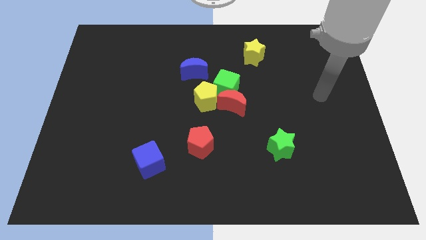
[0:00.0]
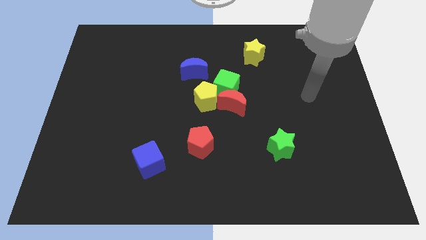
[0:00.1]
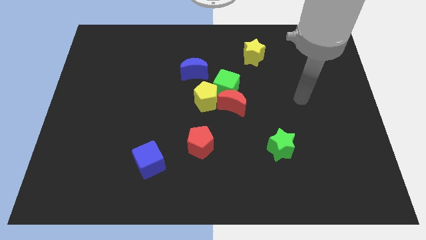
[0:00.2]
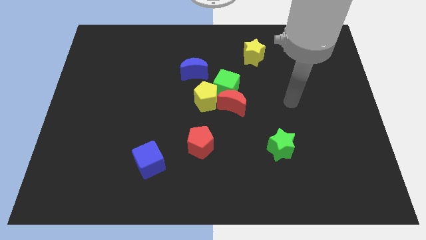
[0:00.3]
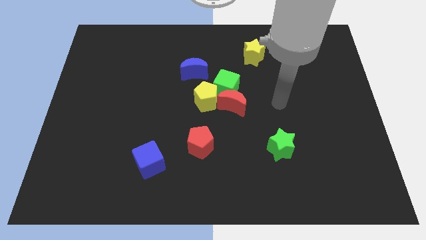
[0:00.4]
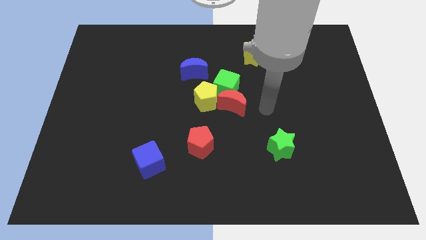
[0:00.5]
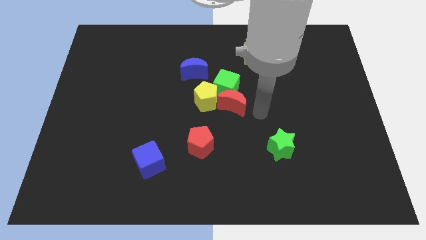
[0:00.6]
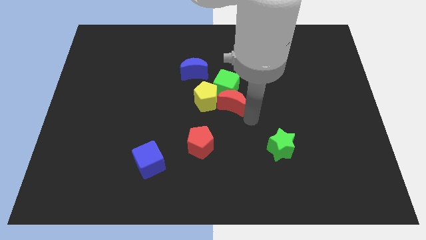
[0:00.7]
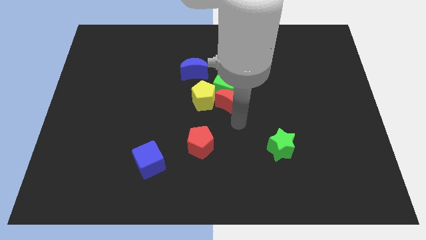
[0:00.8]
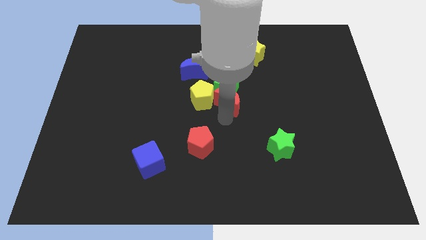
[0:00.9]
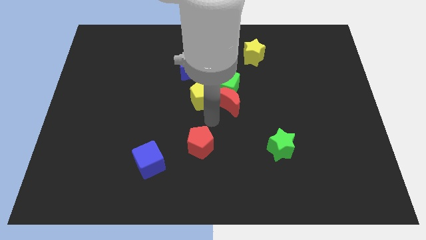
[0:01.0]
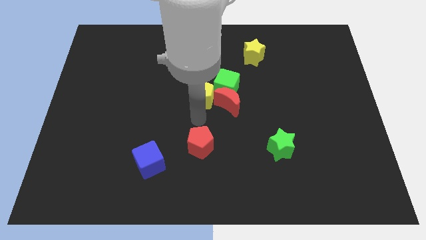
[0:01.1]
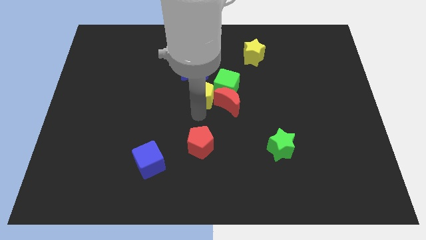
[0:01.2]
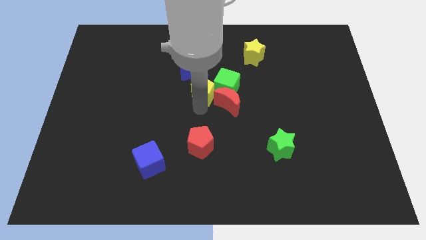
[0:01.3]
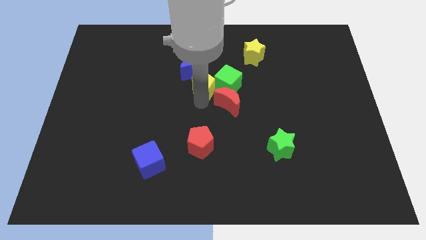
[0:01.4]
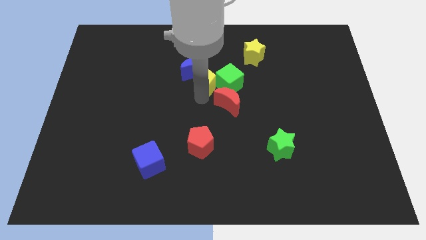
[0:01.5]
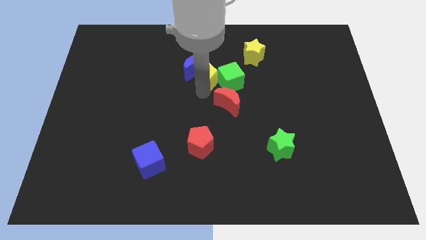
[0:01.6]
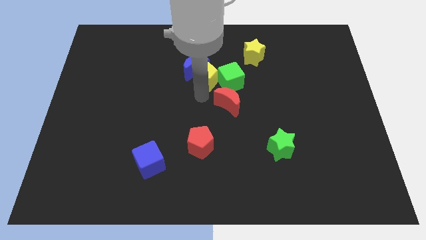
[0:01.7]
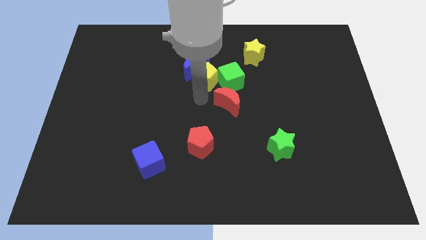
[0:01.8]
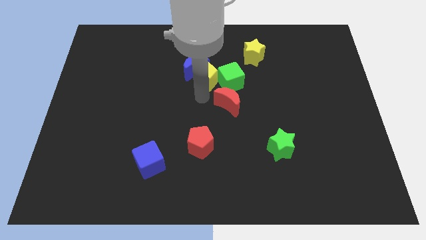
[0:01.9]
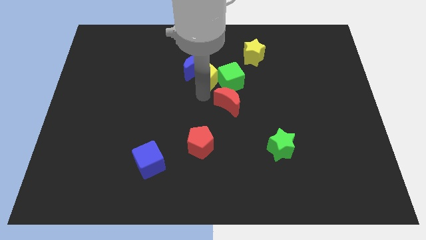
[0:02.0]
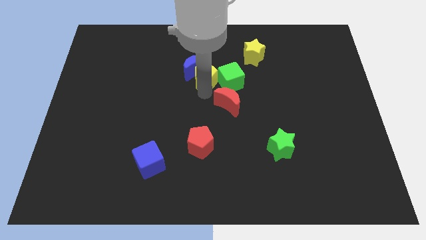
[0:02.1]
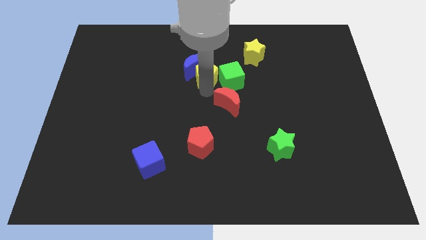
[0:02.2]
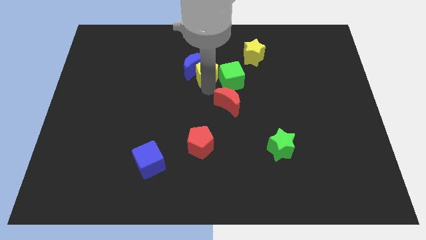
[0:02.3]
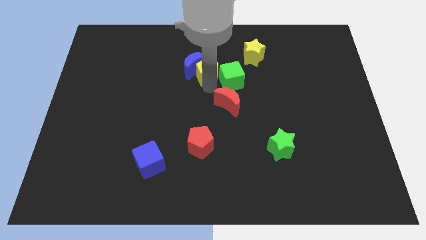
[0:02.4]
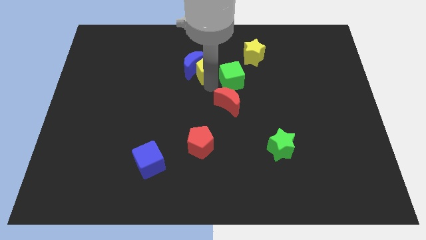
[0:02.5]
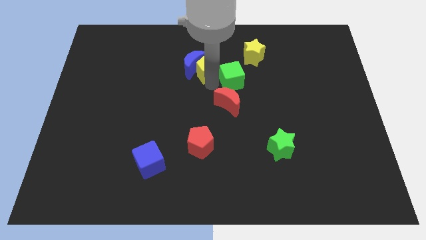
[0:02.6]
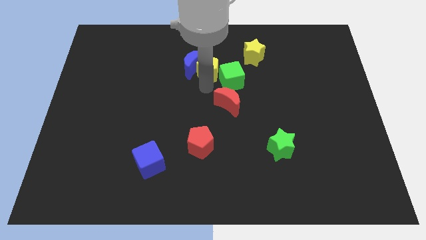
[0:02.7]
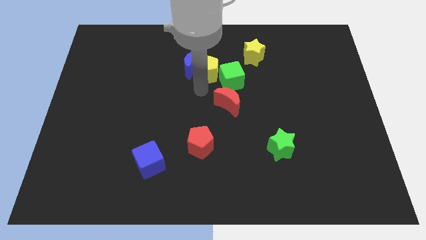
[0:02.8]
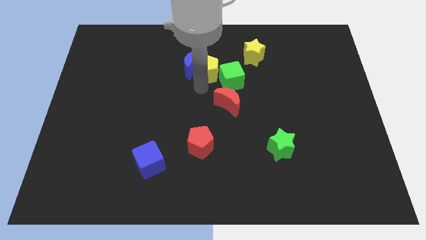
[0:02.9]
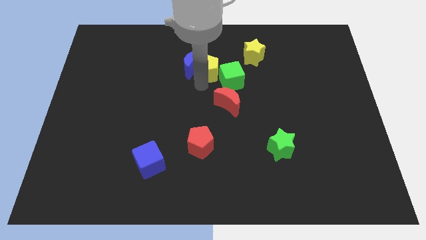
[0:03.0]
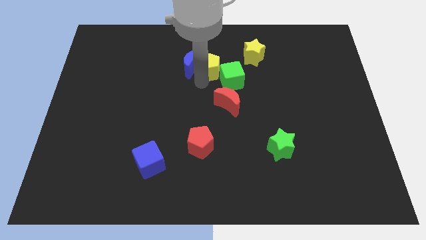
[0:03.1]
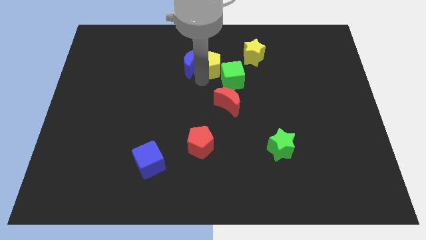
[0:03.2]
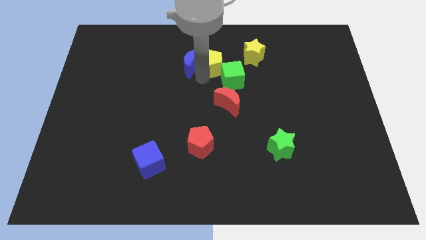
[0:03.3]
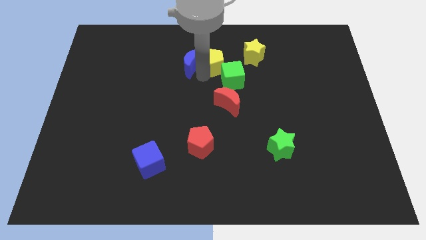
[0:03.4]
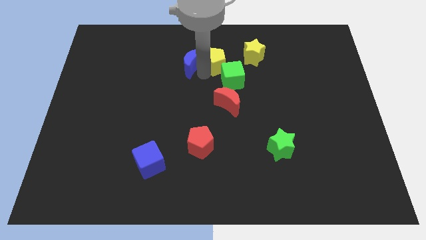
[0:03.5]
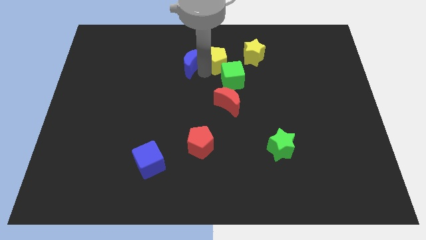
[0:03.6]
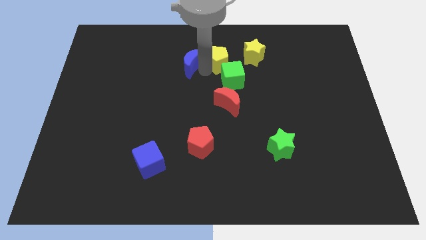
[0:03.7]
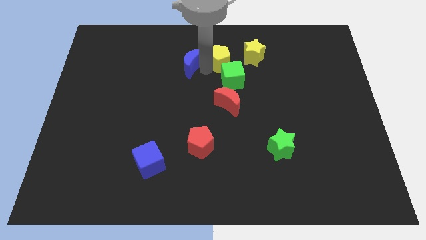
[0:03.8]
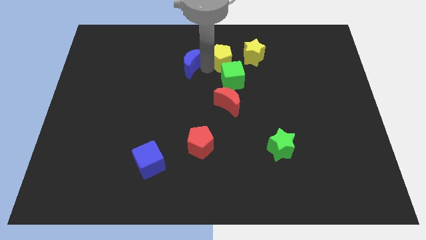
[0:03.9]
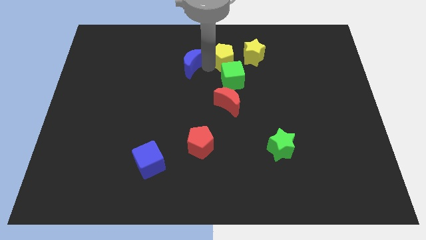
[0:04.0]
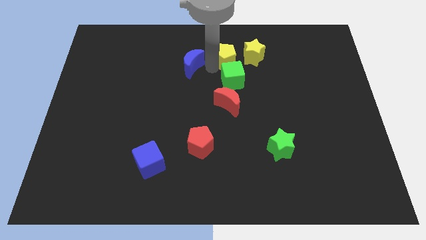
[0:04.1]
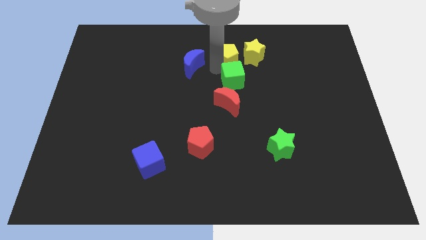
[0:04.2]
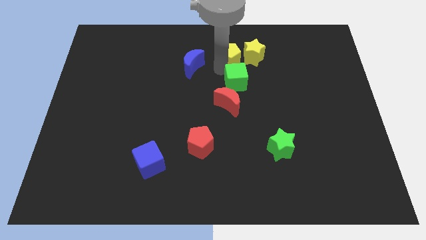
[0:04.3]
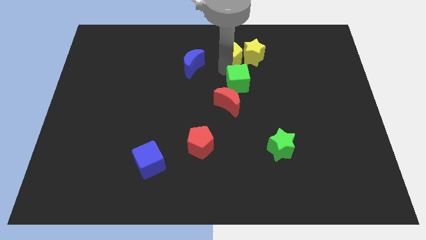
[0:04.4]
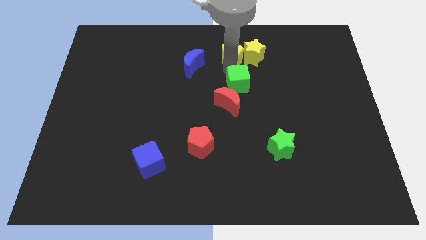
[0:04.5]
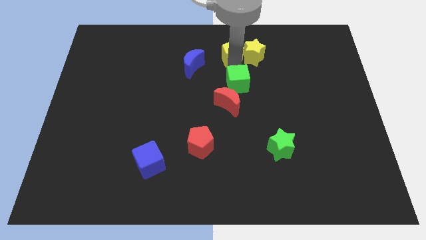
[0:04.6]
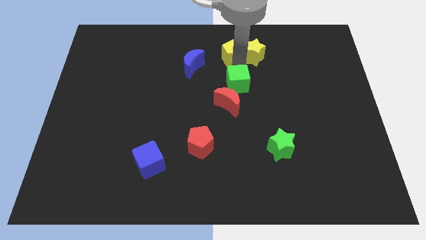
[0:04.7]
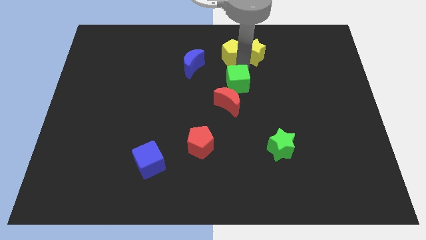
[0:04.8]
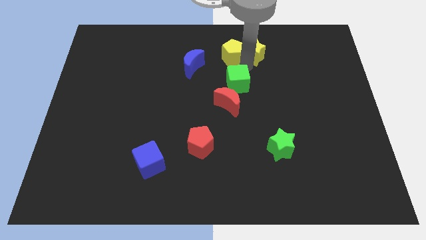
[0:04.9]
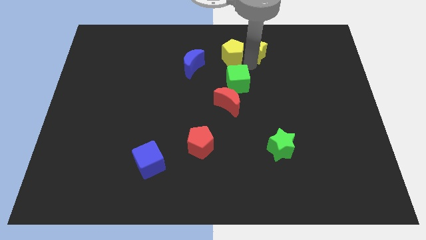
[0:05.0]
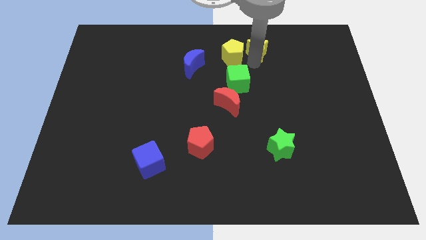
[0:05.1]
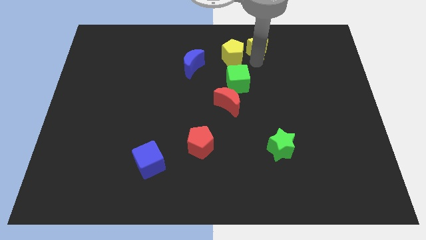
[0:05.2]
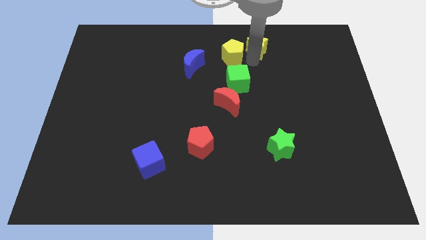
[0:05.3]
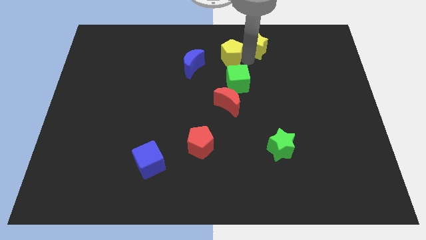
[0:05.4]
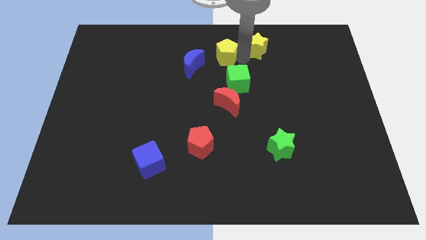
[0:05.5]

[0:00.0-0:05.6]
push the yellow pentagon to the towards your base
